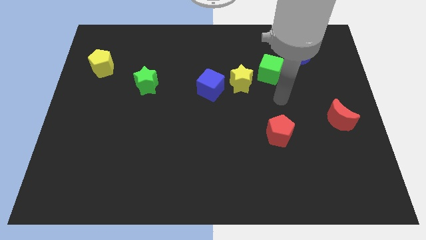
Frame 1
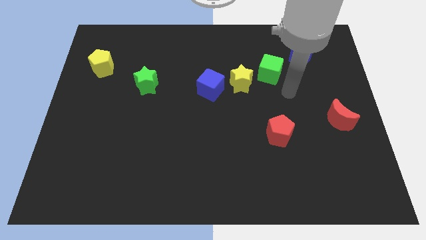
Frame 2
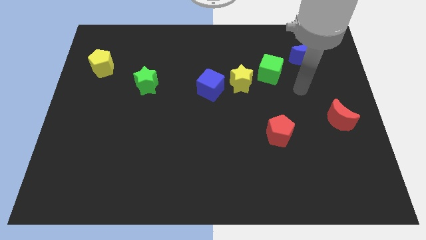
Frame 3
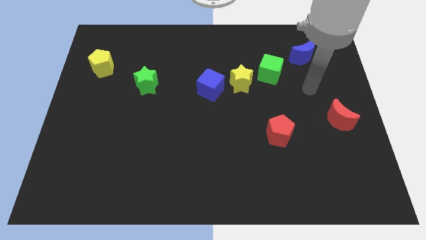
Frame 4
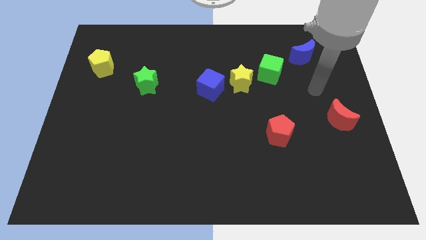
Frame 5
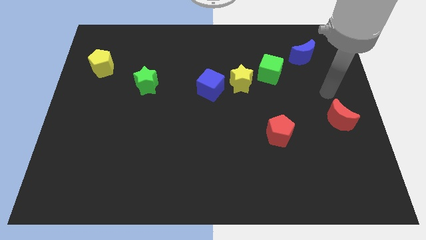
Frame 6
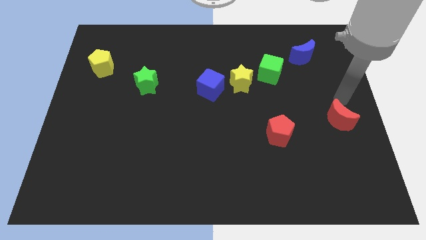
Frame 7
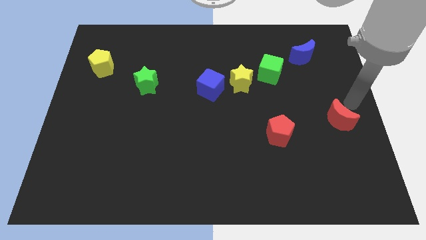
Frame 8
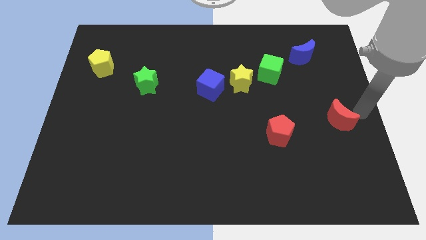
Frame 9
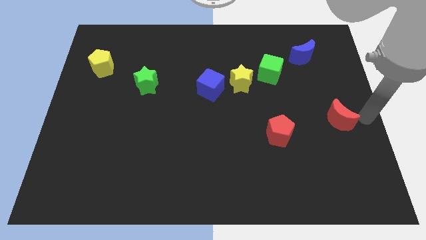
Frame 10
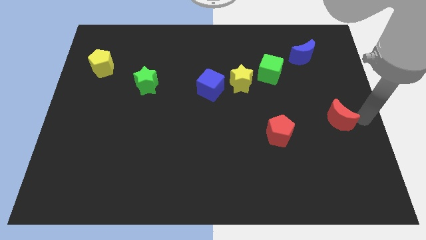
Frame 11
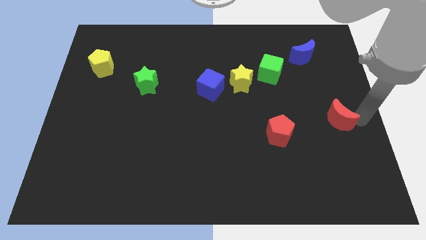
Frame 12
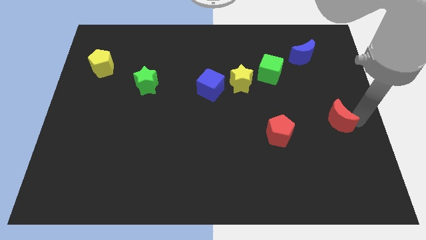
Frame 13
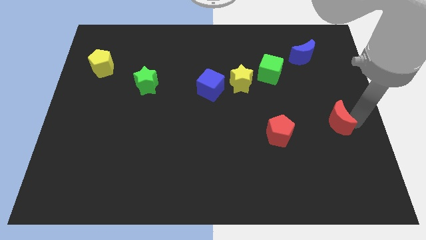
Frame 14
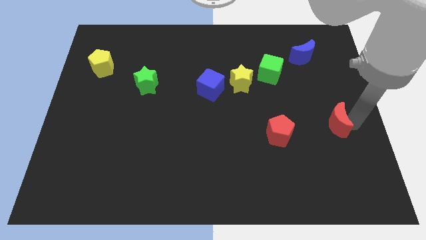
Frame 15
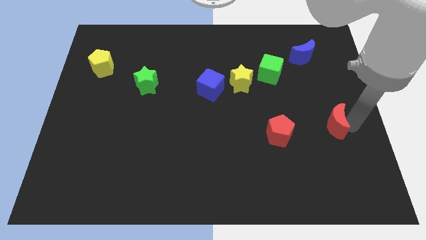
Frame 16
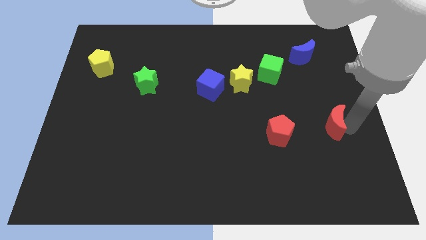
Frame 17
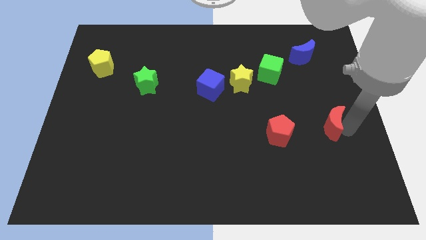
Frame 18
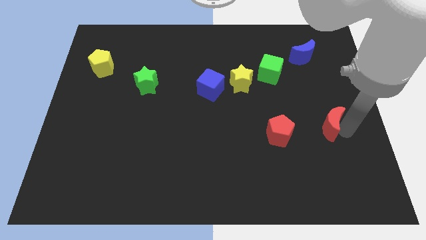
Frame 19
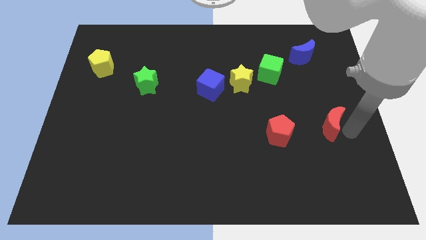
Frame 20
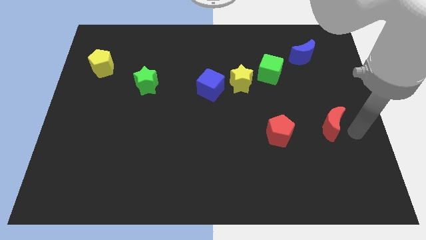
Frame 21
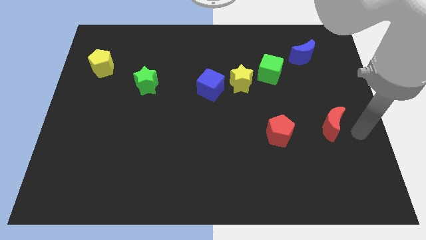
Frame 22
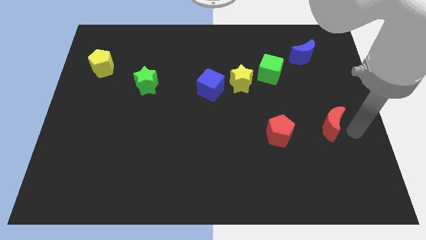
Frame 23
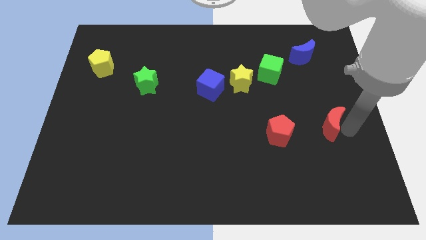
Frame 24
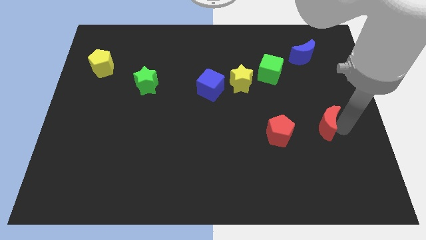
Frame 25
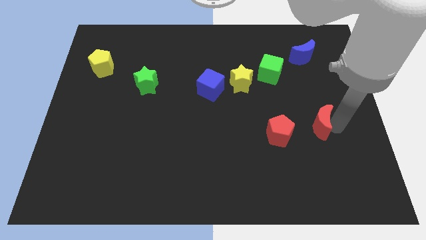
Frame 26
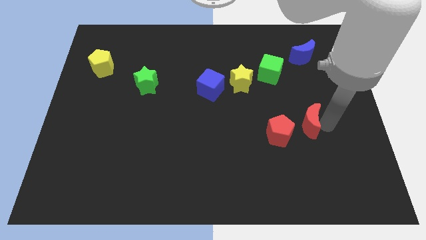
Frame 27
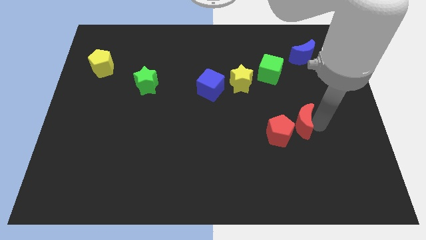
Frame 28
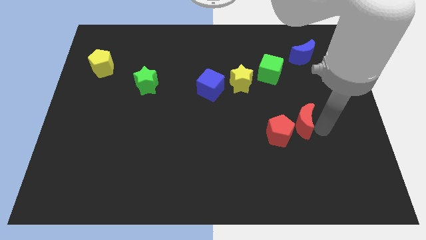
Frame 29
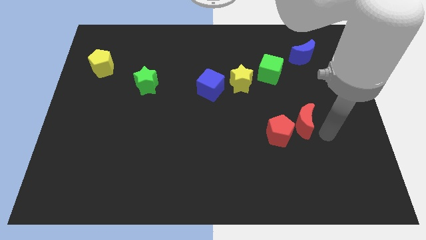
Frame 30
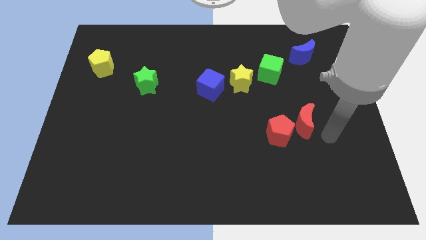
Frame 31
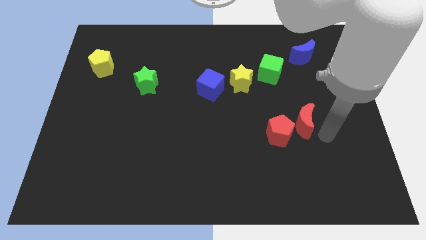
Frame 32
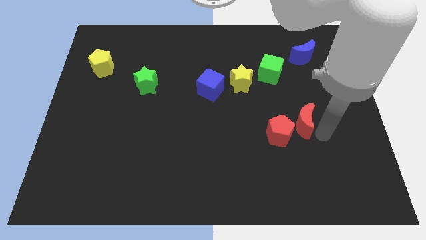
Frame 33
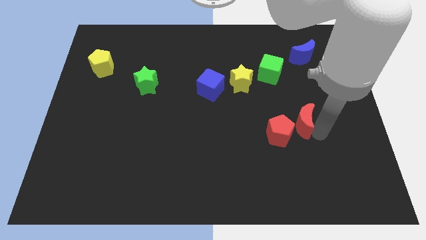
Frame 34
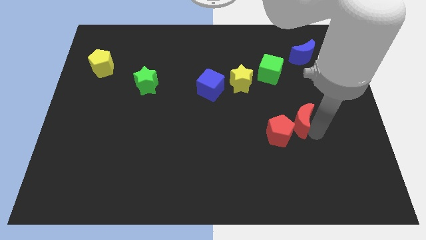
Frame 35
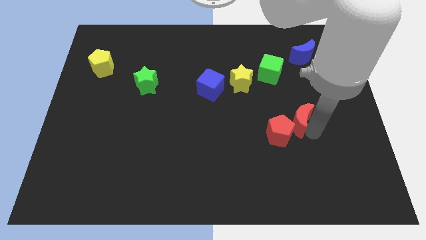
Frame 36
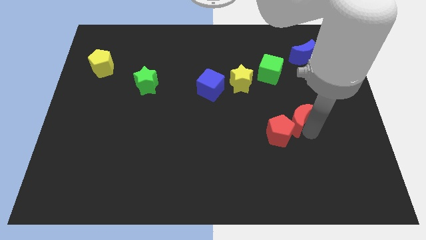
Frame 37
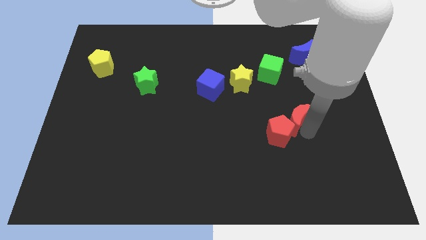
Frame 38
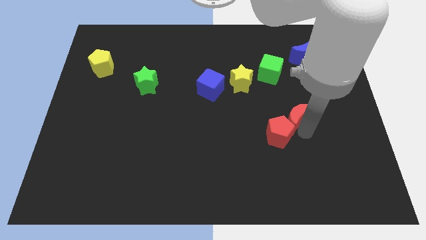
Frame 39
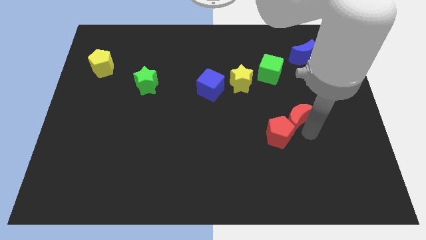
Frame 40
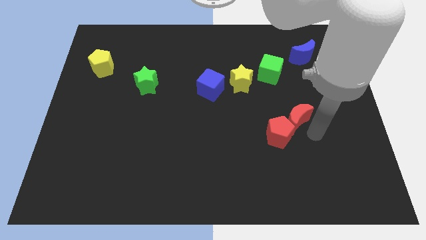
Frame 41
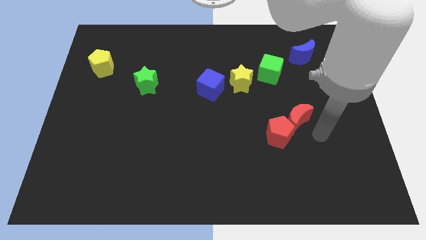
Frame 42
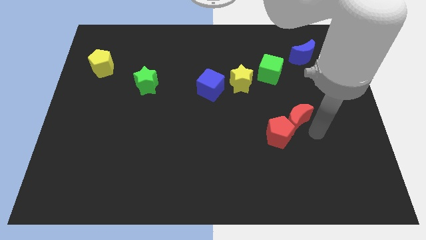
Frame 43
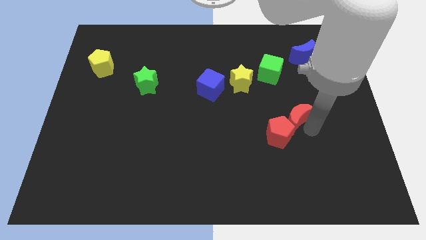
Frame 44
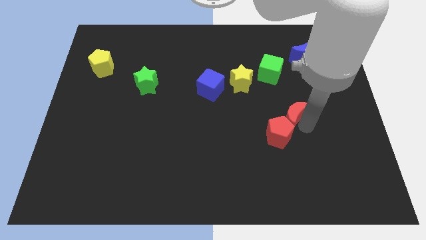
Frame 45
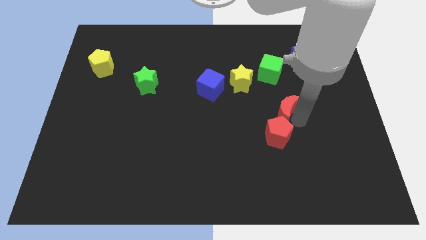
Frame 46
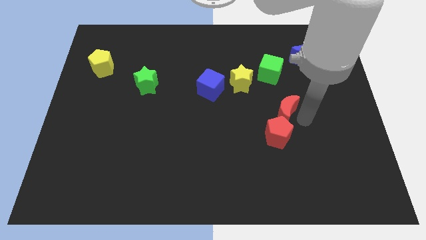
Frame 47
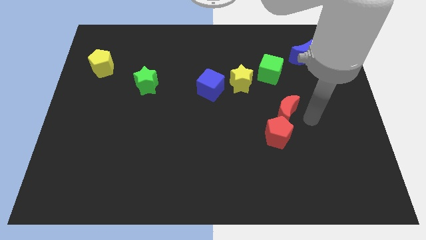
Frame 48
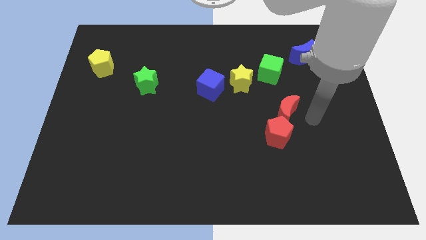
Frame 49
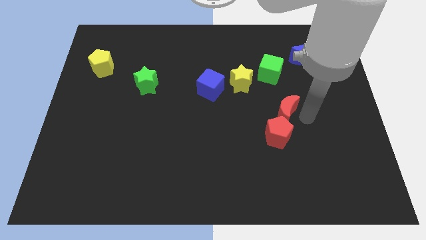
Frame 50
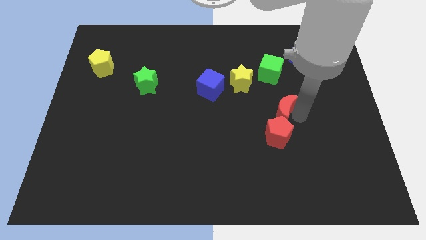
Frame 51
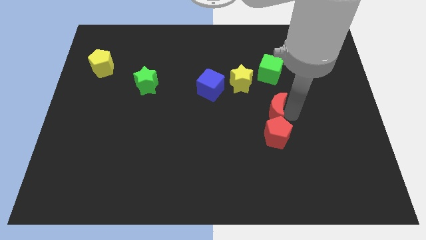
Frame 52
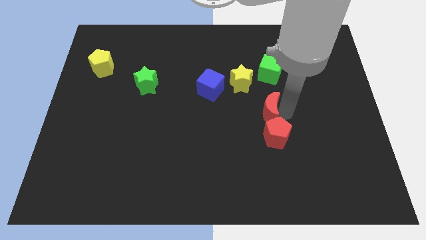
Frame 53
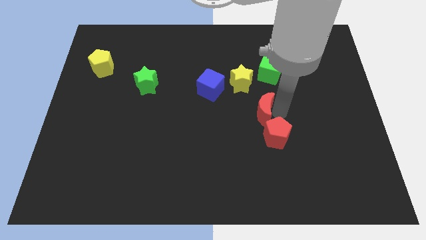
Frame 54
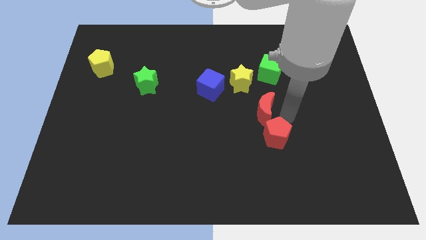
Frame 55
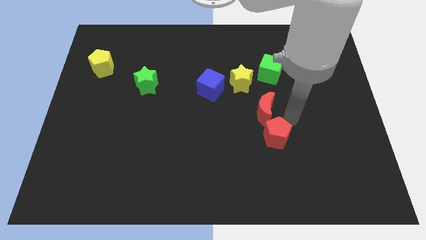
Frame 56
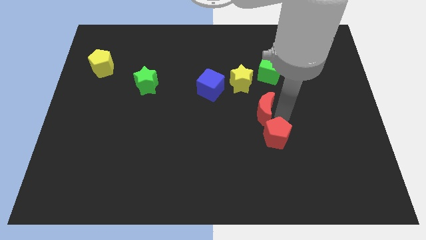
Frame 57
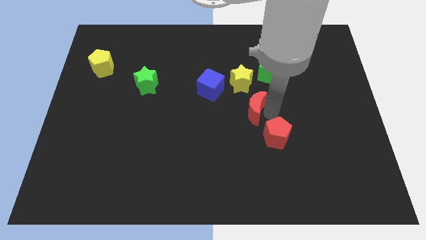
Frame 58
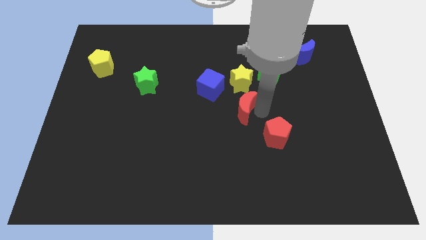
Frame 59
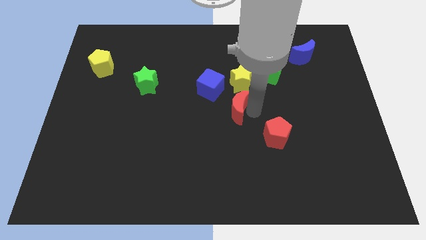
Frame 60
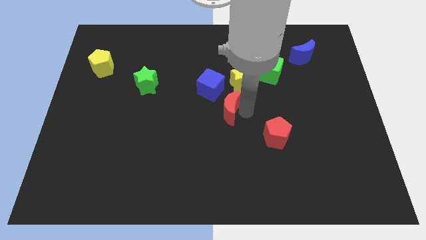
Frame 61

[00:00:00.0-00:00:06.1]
put the red moon diagonally down and to the left of the yellow star
